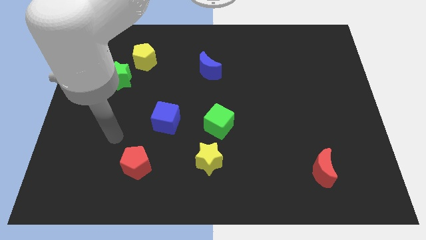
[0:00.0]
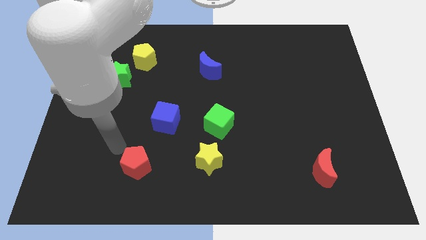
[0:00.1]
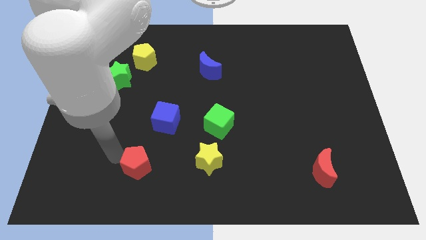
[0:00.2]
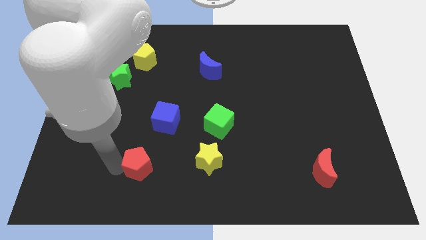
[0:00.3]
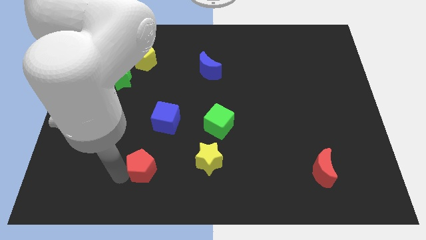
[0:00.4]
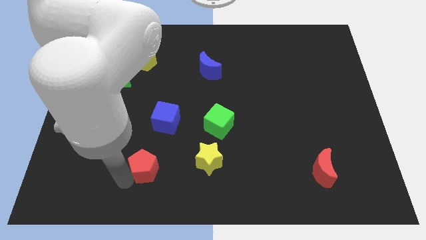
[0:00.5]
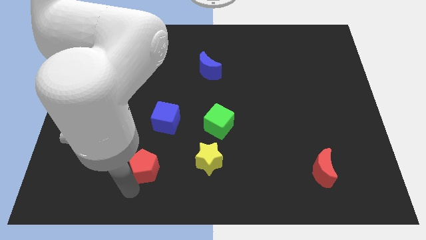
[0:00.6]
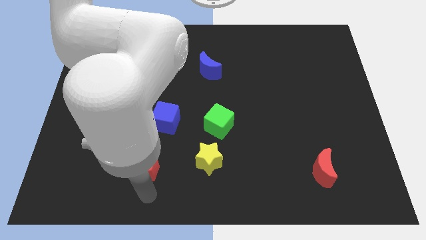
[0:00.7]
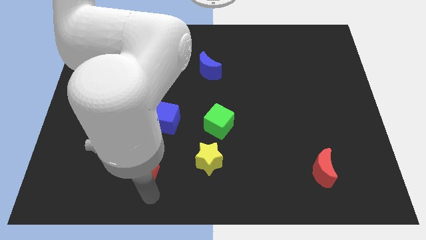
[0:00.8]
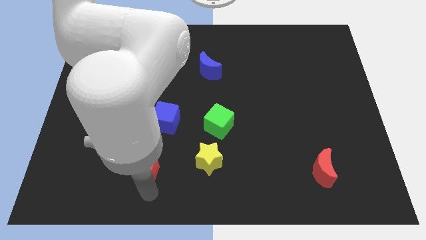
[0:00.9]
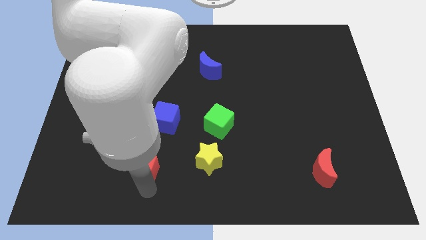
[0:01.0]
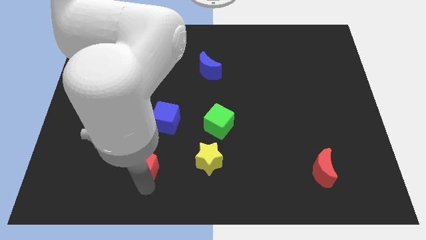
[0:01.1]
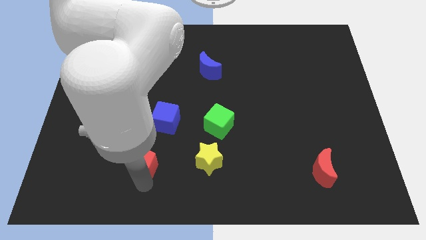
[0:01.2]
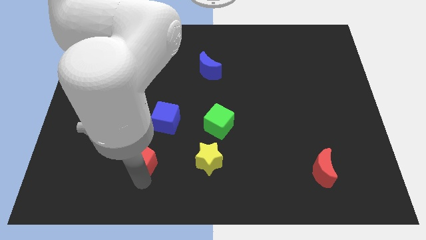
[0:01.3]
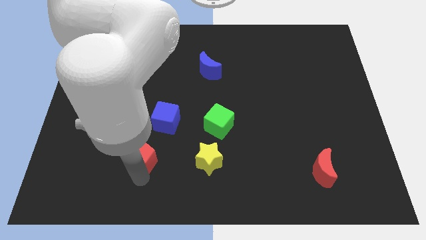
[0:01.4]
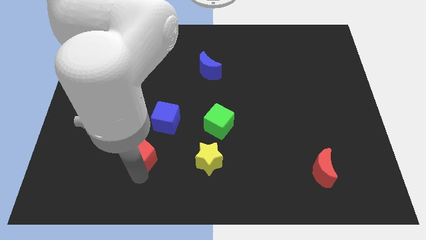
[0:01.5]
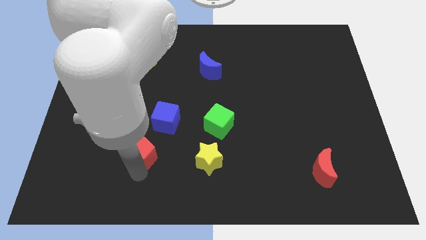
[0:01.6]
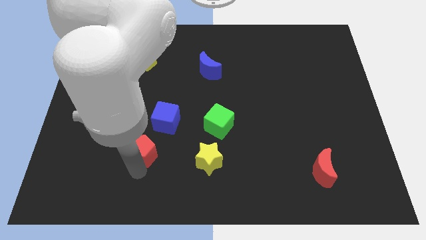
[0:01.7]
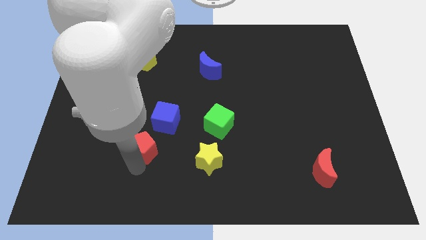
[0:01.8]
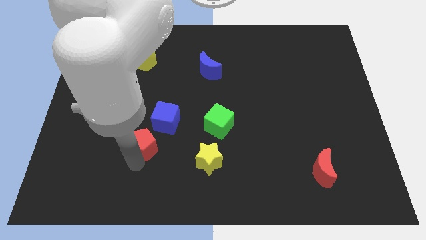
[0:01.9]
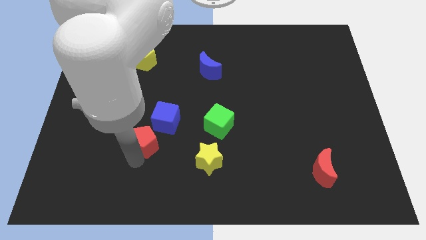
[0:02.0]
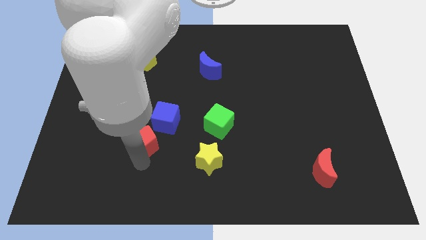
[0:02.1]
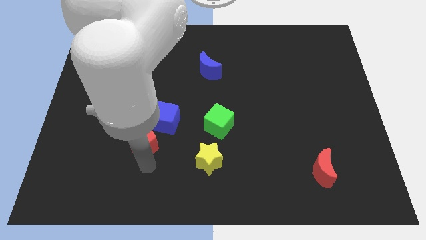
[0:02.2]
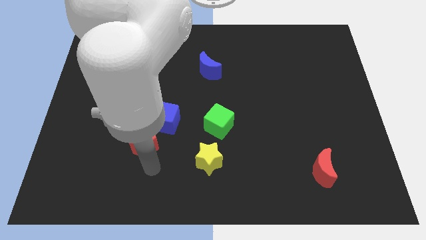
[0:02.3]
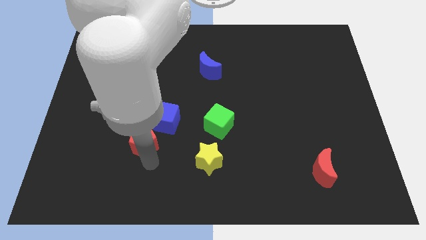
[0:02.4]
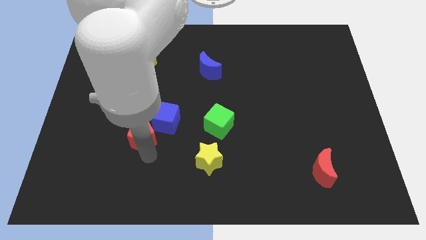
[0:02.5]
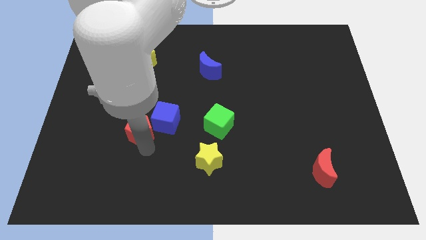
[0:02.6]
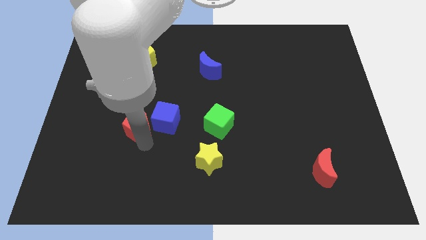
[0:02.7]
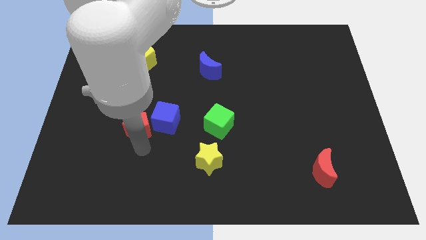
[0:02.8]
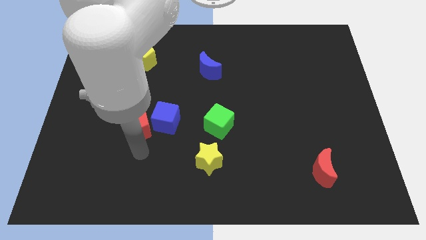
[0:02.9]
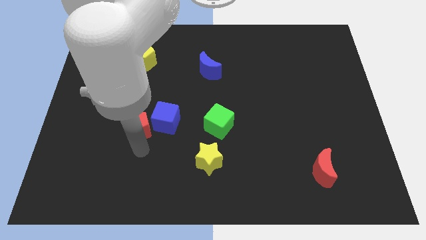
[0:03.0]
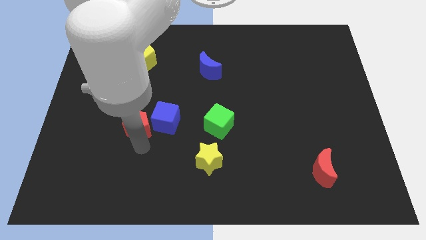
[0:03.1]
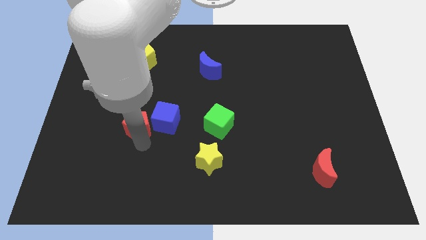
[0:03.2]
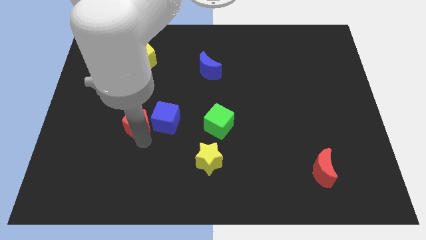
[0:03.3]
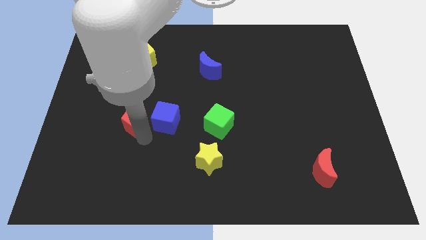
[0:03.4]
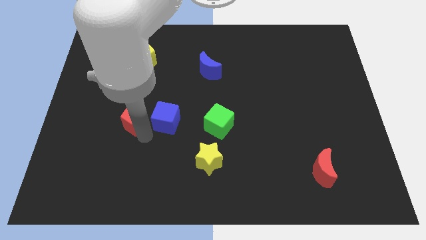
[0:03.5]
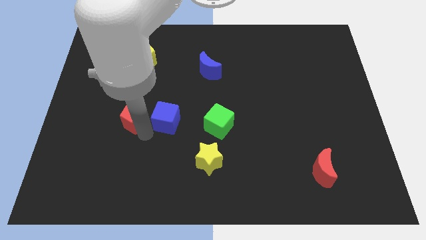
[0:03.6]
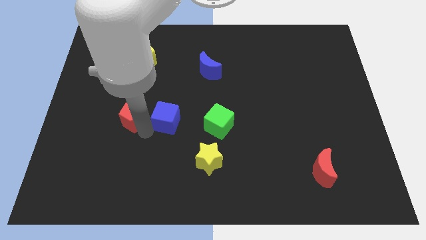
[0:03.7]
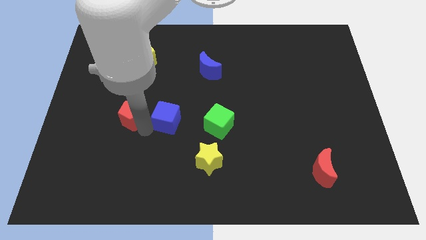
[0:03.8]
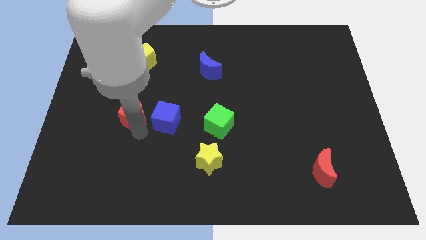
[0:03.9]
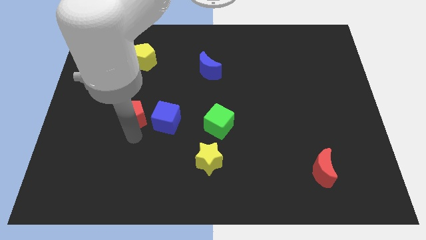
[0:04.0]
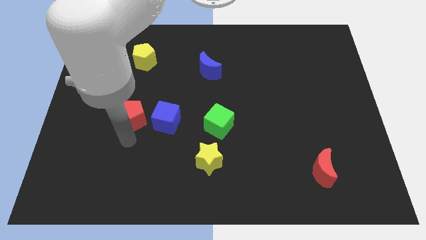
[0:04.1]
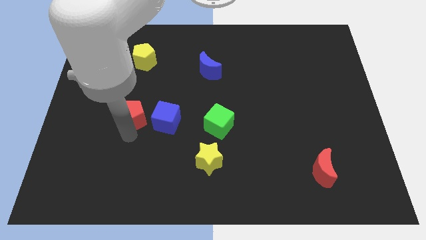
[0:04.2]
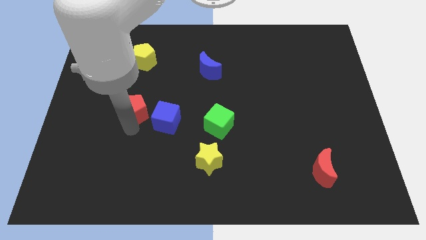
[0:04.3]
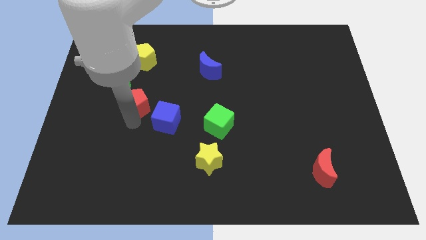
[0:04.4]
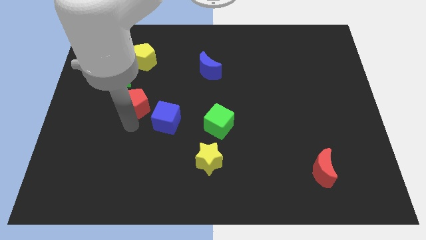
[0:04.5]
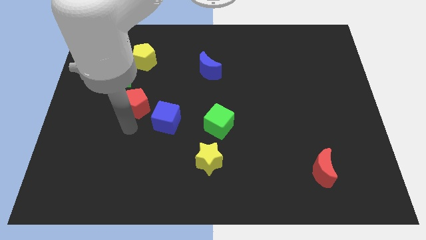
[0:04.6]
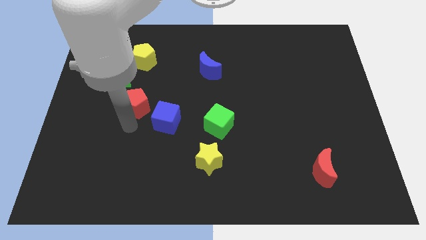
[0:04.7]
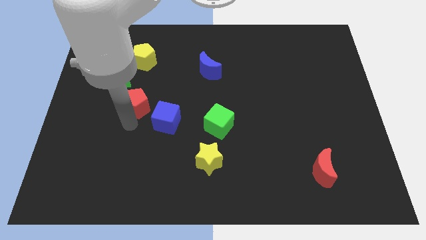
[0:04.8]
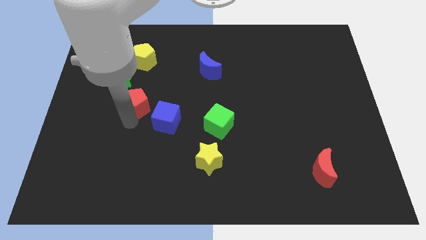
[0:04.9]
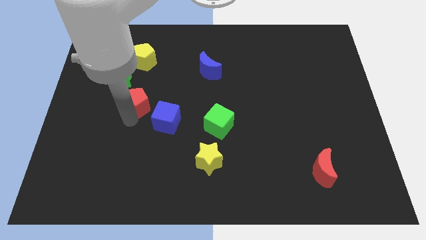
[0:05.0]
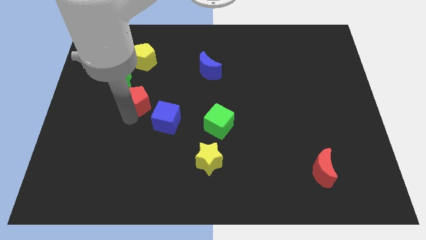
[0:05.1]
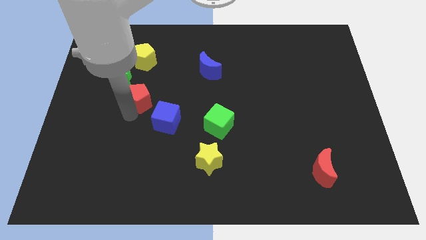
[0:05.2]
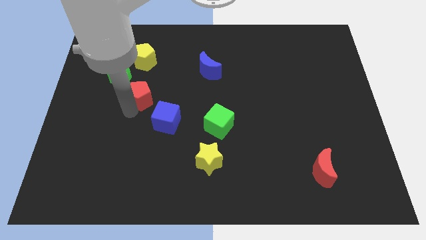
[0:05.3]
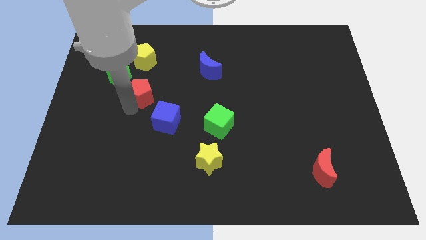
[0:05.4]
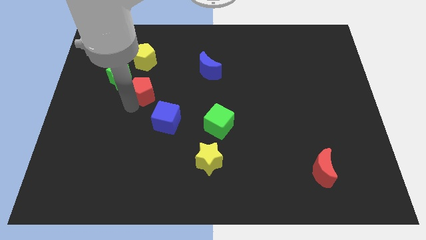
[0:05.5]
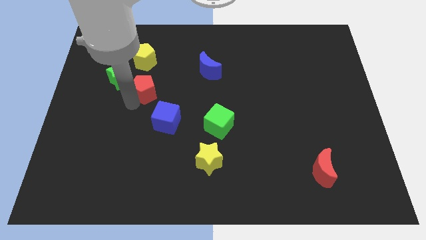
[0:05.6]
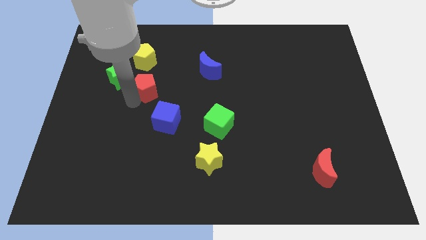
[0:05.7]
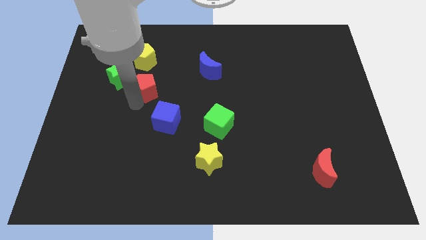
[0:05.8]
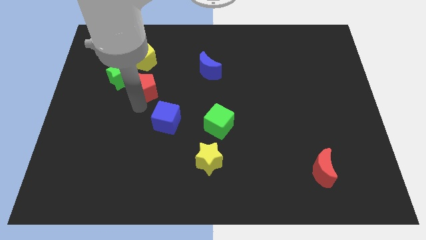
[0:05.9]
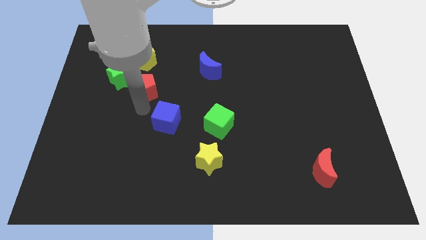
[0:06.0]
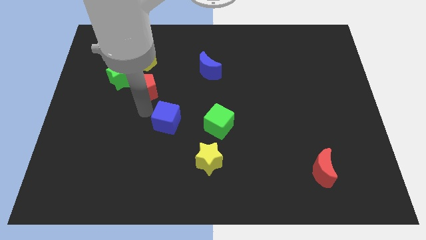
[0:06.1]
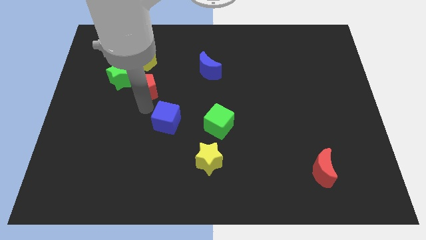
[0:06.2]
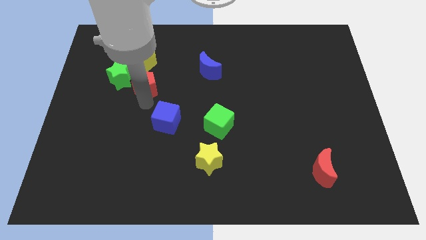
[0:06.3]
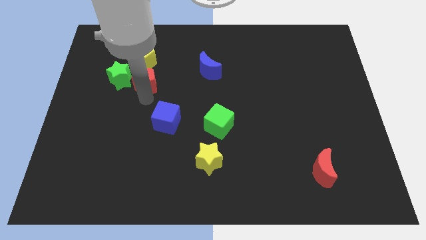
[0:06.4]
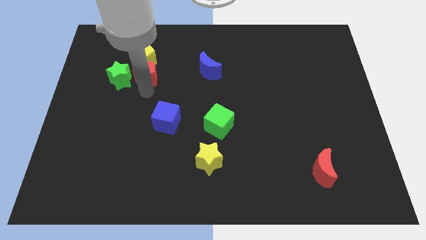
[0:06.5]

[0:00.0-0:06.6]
slide the red pentagon next to the yellow pentagon

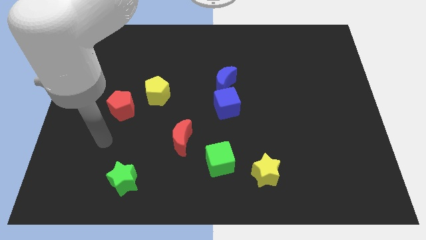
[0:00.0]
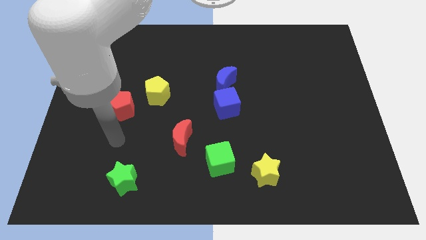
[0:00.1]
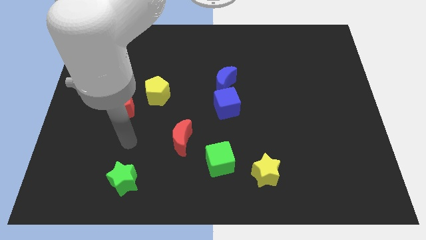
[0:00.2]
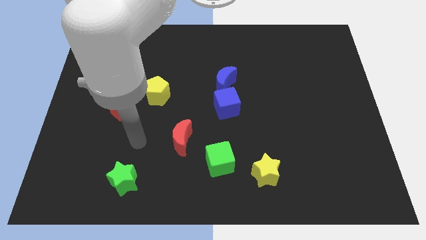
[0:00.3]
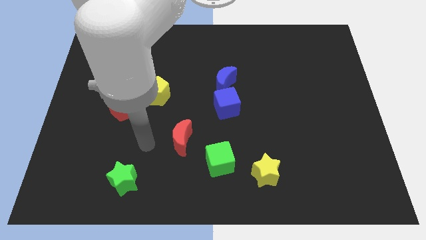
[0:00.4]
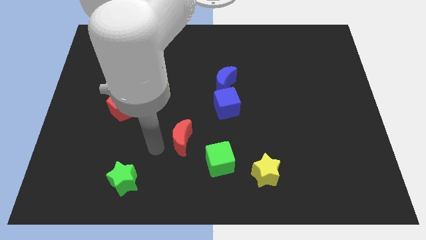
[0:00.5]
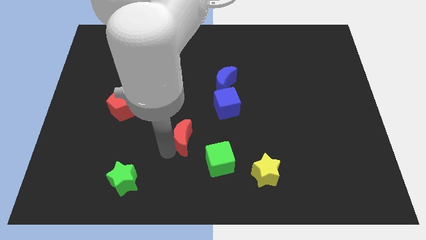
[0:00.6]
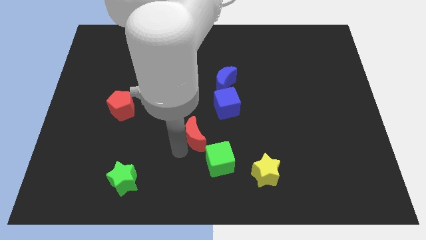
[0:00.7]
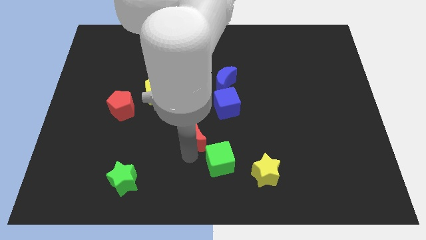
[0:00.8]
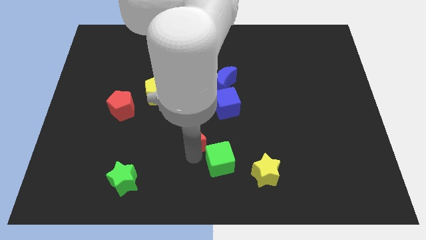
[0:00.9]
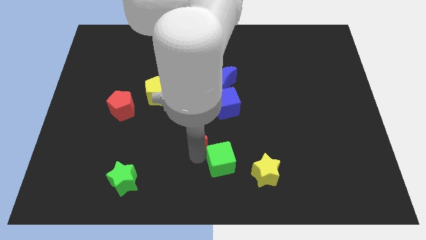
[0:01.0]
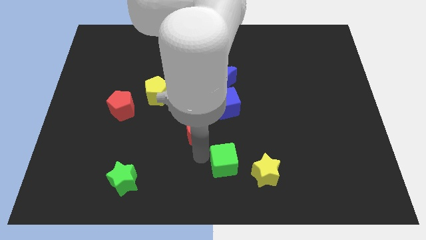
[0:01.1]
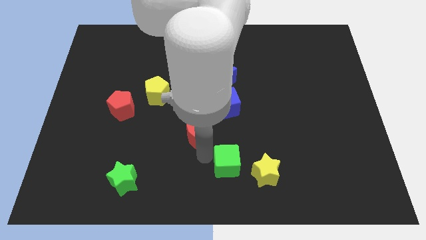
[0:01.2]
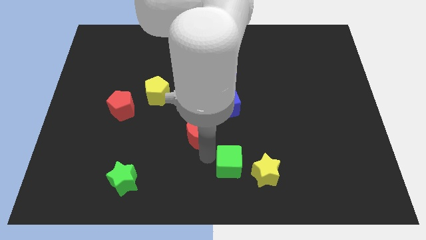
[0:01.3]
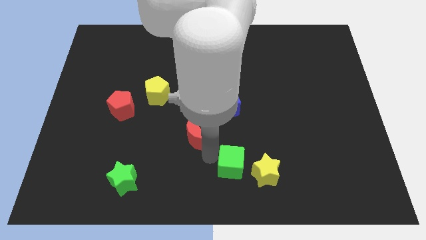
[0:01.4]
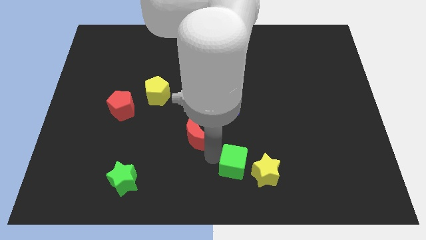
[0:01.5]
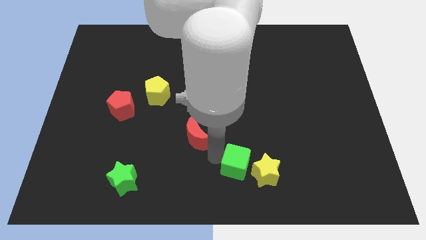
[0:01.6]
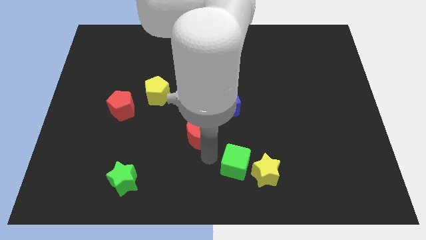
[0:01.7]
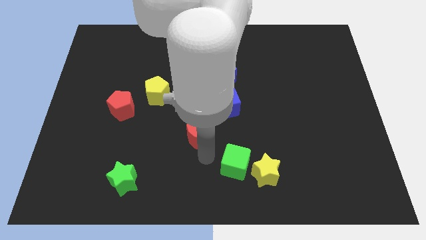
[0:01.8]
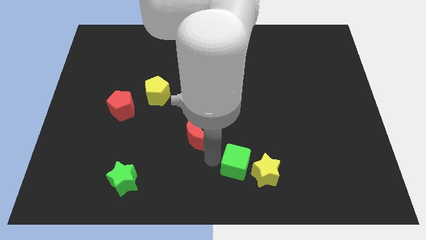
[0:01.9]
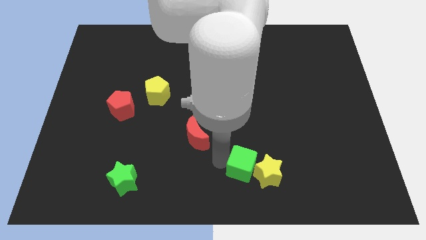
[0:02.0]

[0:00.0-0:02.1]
put the green cube towards the yellow star
